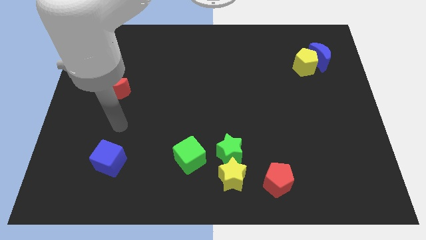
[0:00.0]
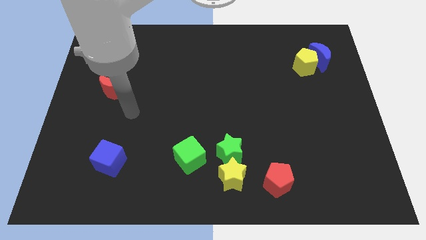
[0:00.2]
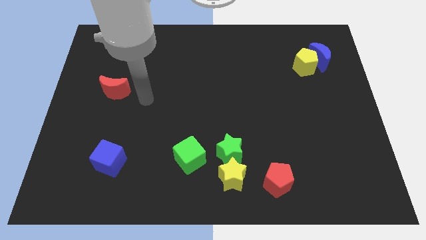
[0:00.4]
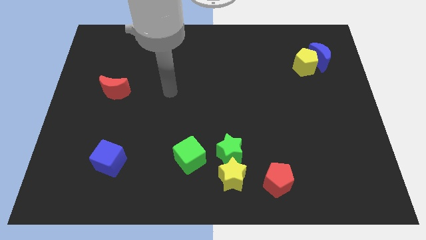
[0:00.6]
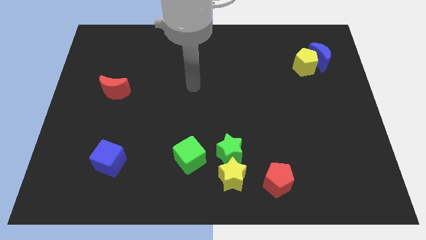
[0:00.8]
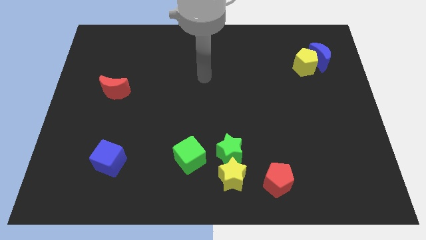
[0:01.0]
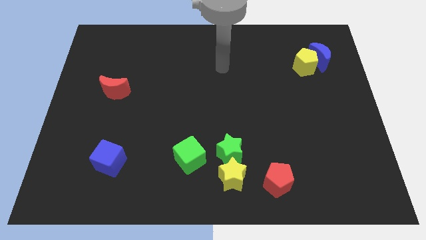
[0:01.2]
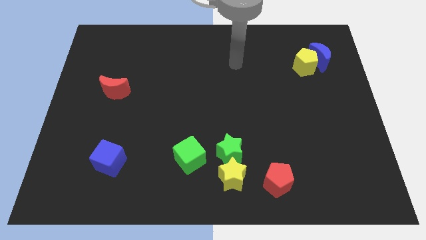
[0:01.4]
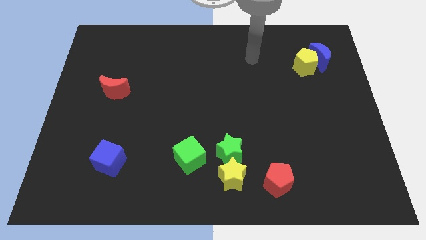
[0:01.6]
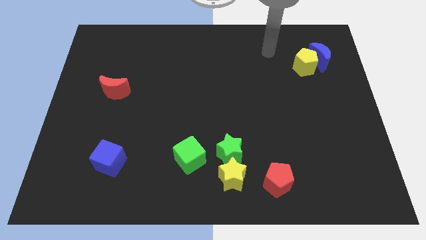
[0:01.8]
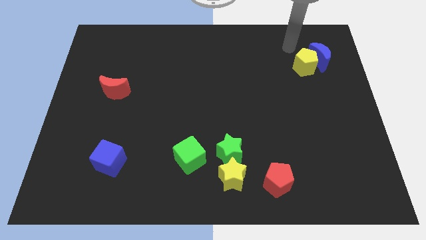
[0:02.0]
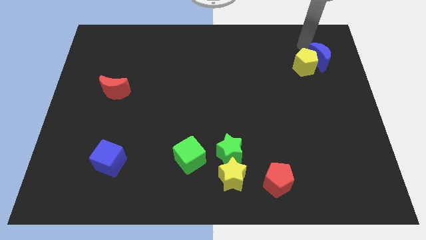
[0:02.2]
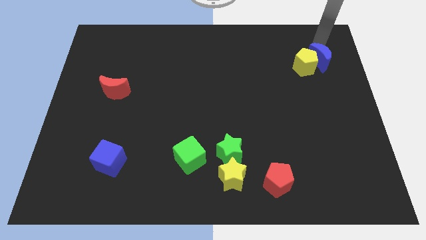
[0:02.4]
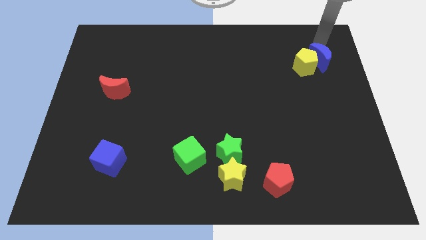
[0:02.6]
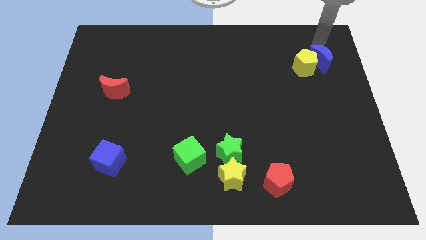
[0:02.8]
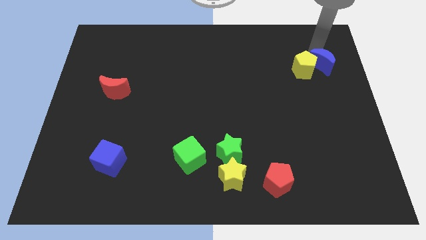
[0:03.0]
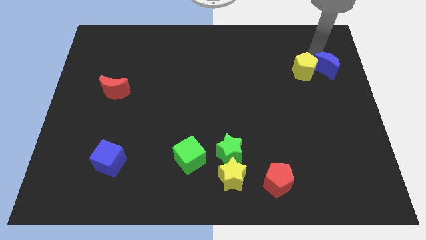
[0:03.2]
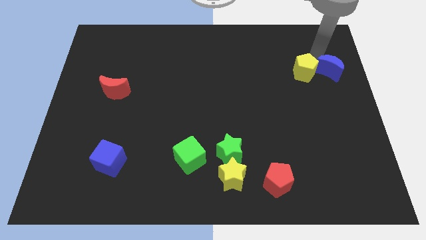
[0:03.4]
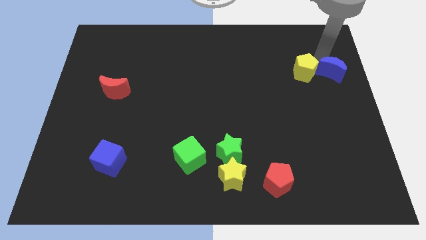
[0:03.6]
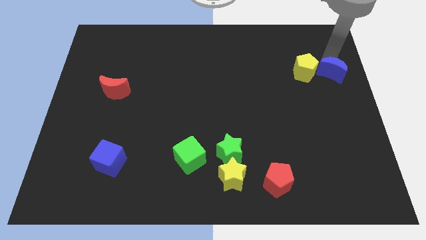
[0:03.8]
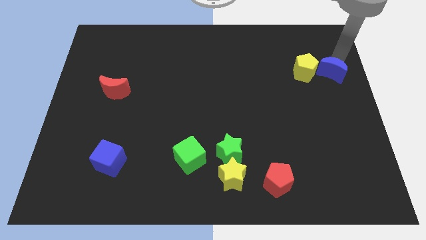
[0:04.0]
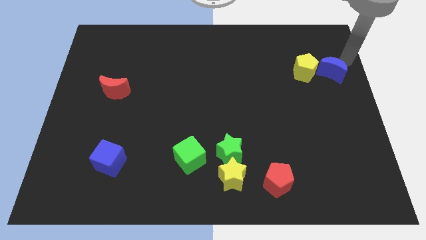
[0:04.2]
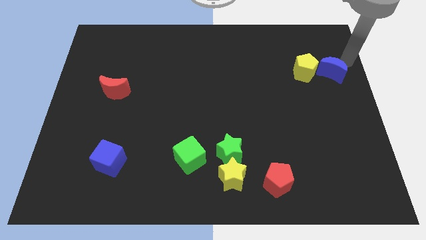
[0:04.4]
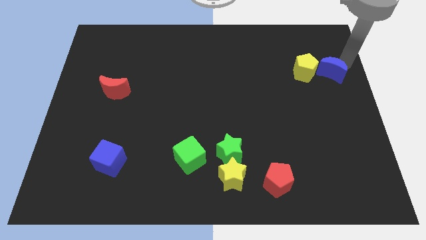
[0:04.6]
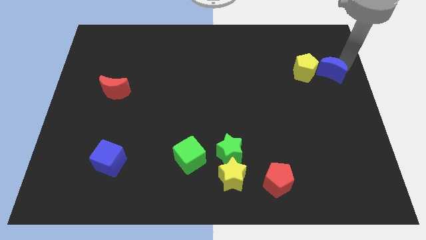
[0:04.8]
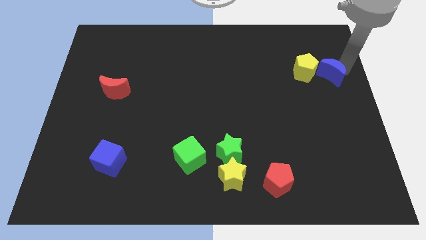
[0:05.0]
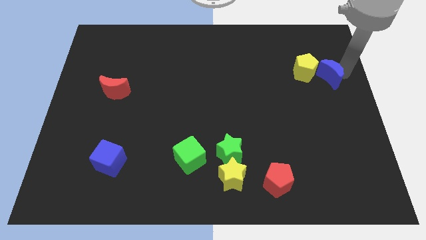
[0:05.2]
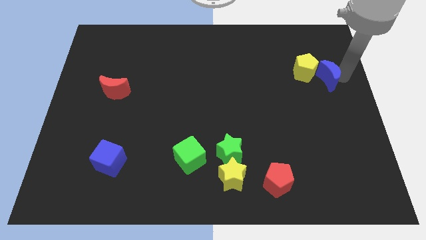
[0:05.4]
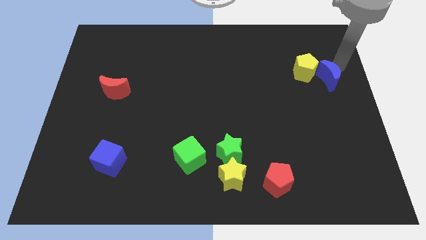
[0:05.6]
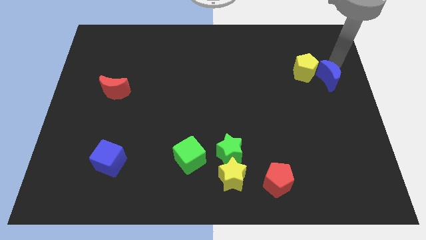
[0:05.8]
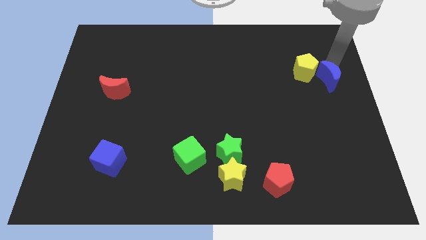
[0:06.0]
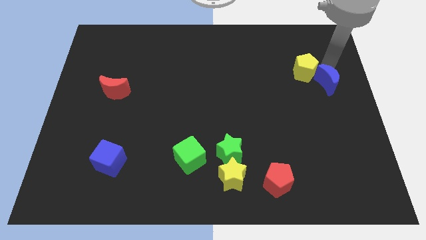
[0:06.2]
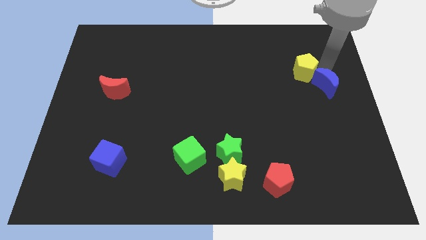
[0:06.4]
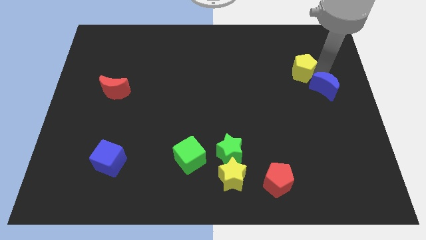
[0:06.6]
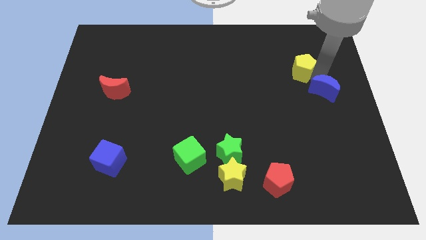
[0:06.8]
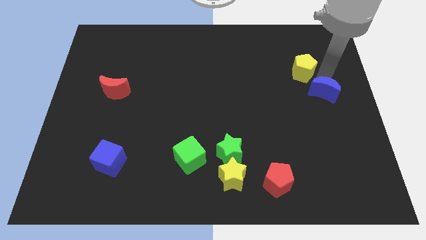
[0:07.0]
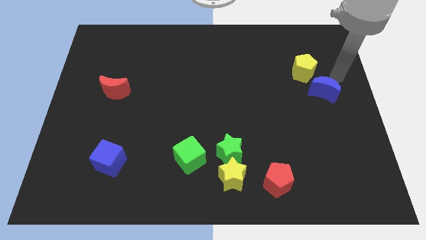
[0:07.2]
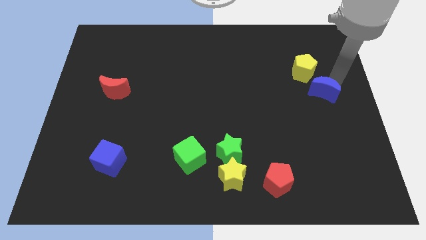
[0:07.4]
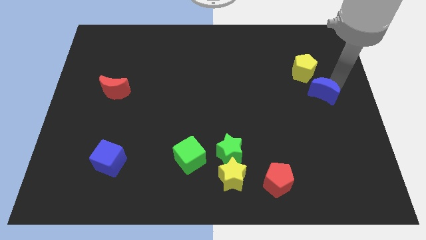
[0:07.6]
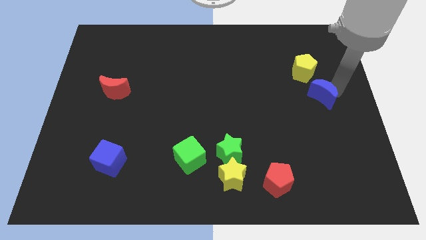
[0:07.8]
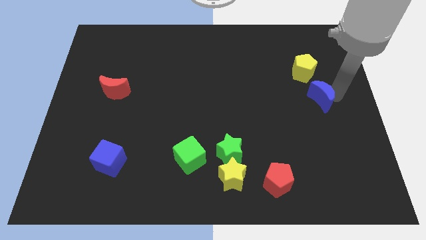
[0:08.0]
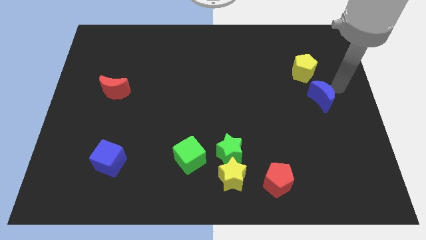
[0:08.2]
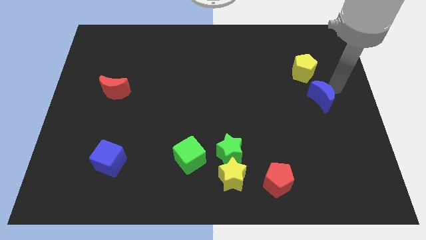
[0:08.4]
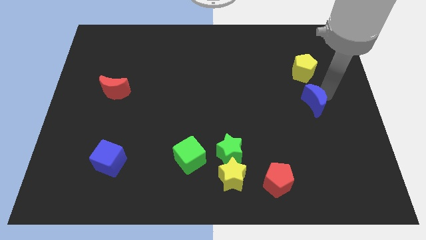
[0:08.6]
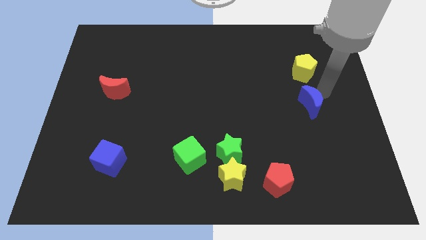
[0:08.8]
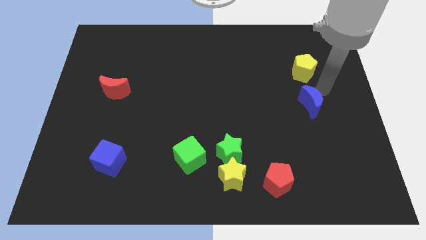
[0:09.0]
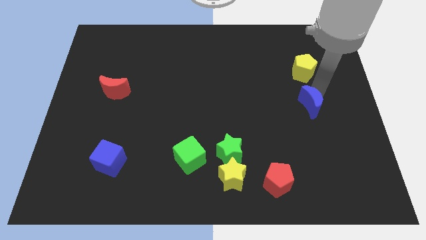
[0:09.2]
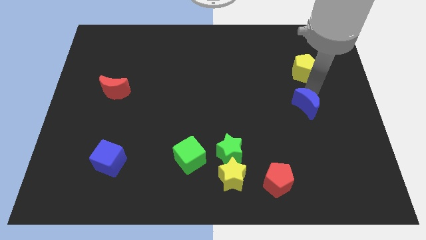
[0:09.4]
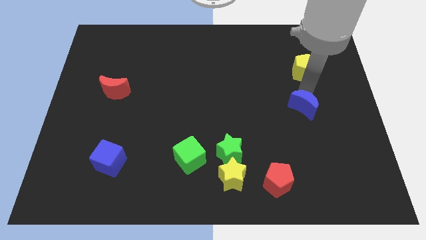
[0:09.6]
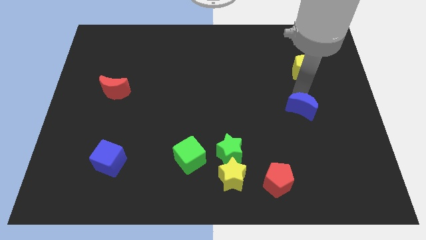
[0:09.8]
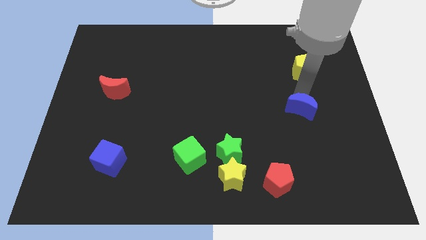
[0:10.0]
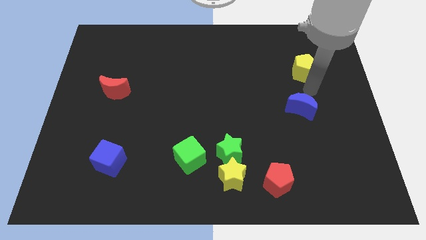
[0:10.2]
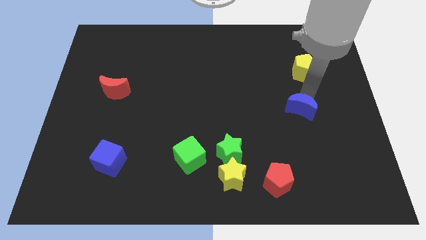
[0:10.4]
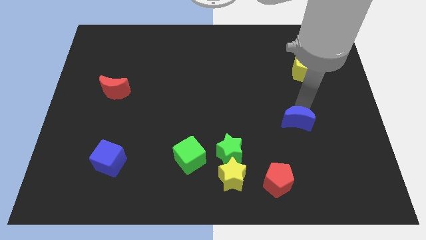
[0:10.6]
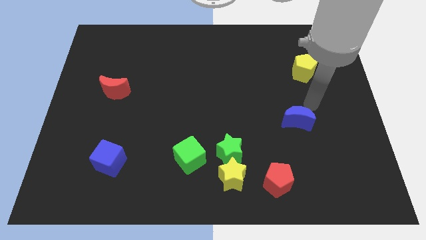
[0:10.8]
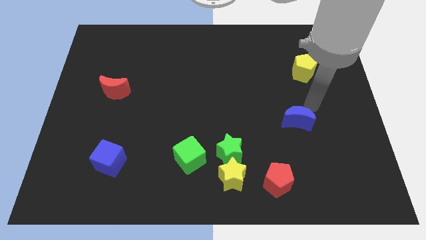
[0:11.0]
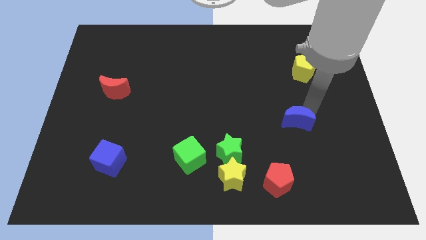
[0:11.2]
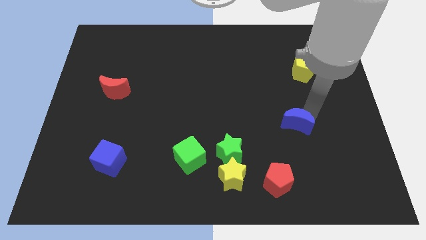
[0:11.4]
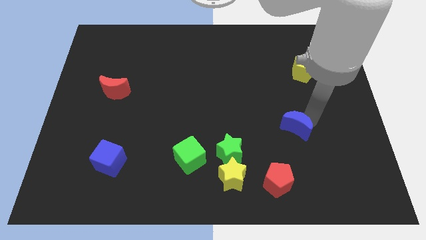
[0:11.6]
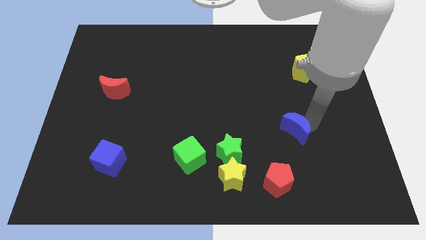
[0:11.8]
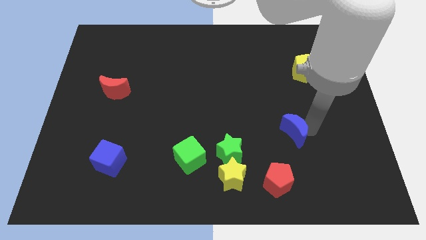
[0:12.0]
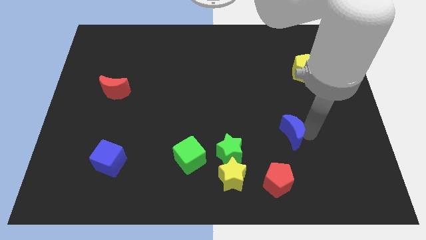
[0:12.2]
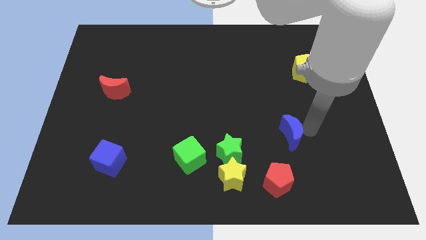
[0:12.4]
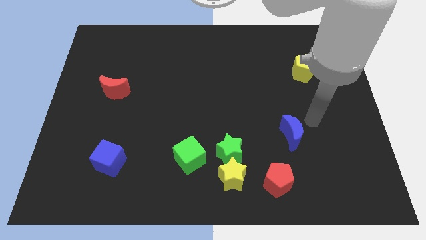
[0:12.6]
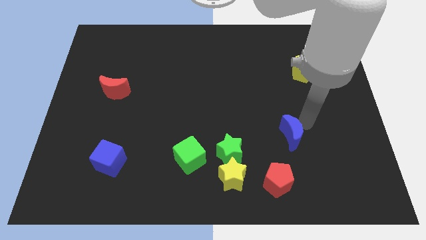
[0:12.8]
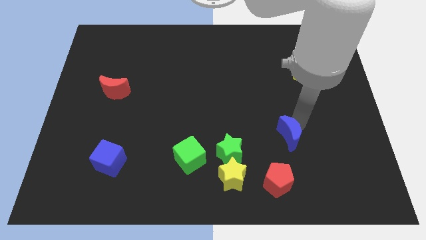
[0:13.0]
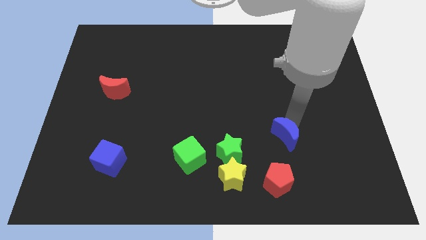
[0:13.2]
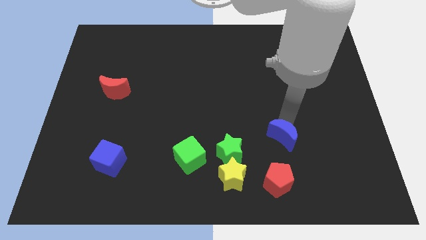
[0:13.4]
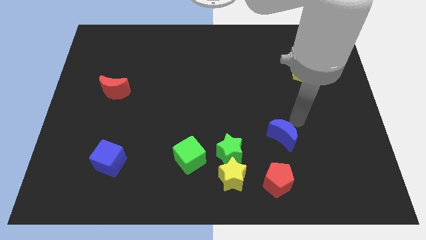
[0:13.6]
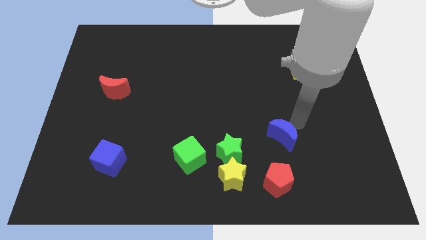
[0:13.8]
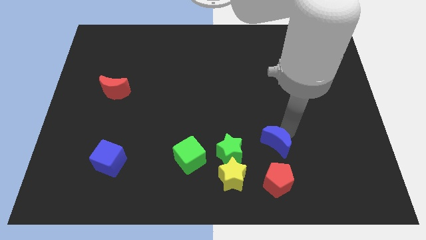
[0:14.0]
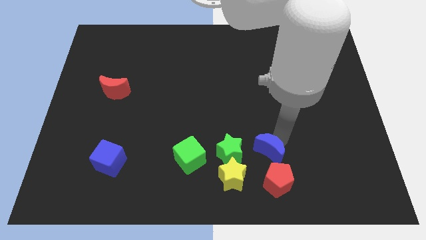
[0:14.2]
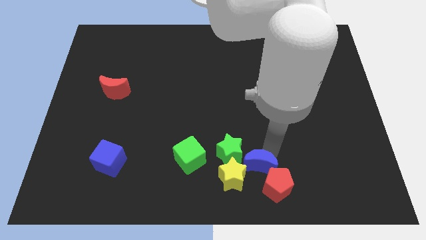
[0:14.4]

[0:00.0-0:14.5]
put the blue moon close to the yellow star

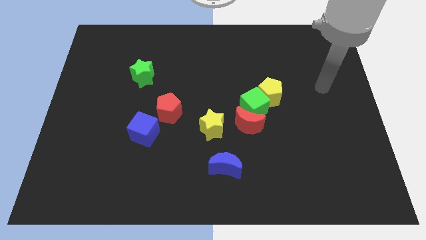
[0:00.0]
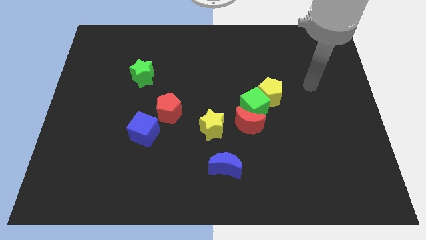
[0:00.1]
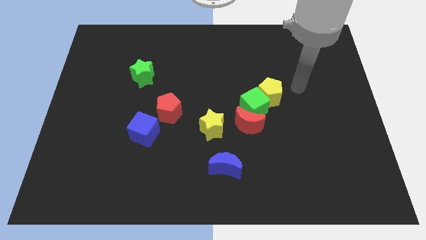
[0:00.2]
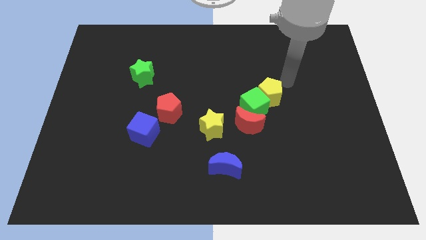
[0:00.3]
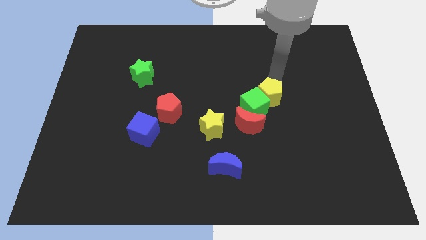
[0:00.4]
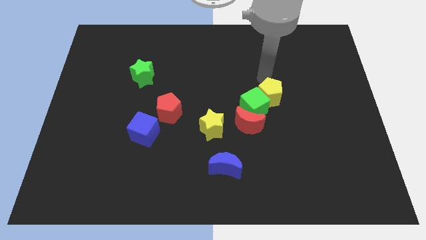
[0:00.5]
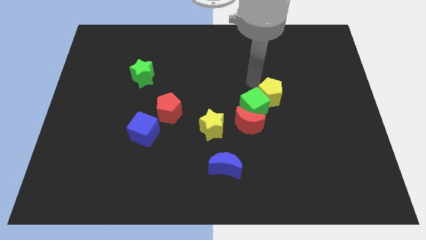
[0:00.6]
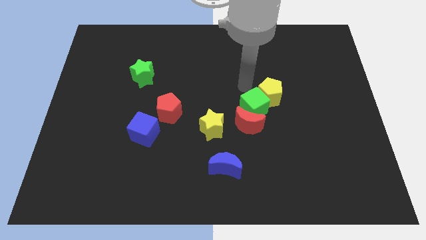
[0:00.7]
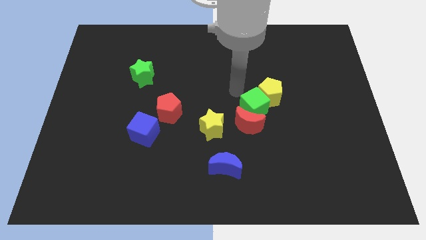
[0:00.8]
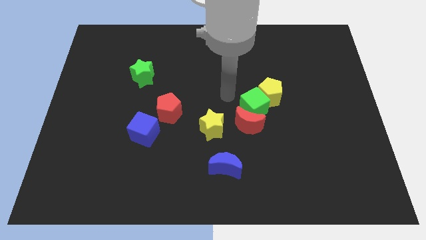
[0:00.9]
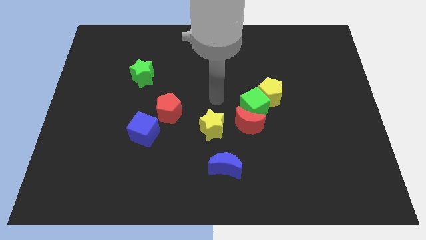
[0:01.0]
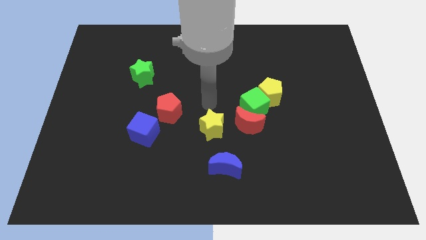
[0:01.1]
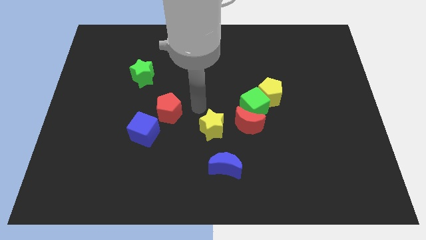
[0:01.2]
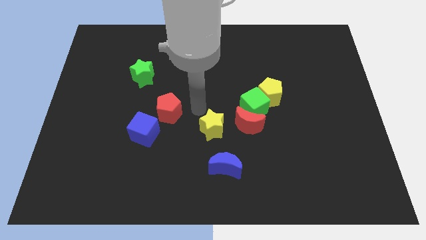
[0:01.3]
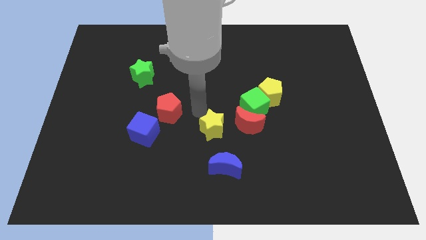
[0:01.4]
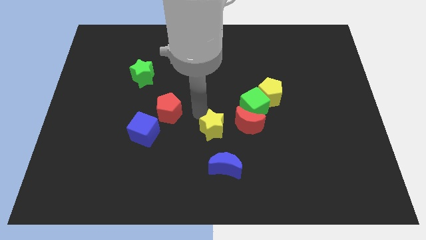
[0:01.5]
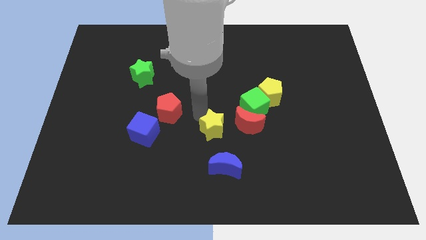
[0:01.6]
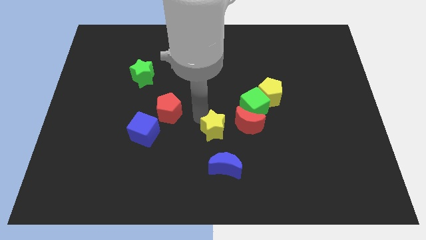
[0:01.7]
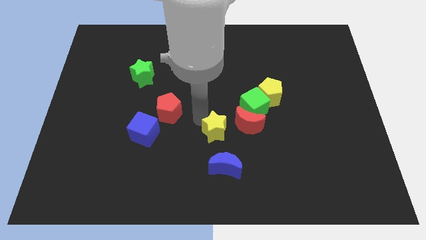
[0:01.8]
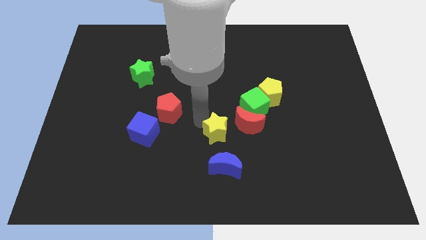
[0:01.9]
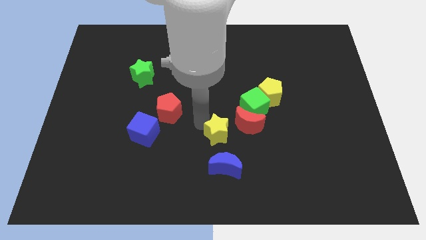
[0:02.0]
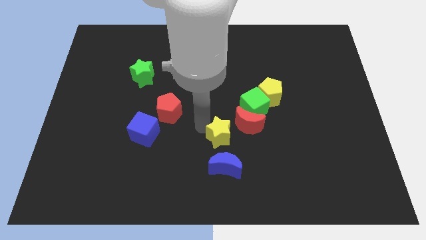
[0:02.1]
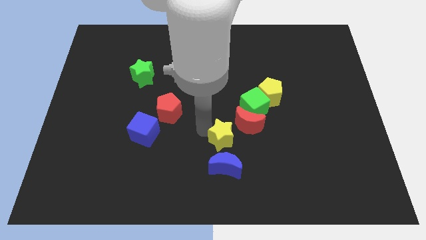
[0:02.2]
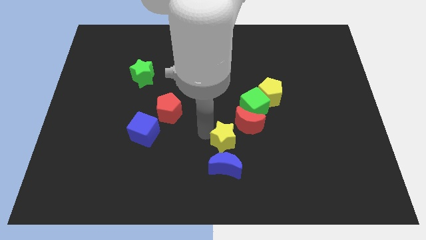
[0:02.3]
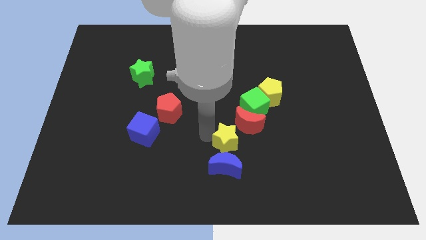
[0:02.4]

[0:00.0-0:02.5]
move the yellow star towards the blue moon
